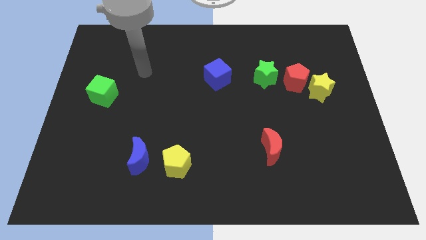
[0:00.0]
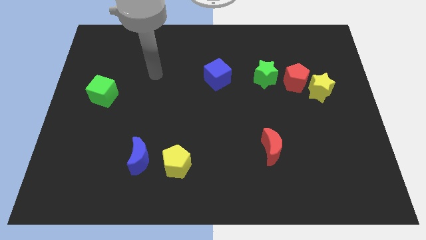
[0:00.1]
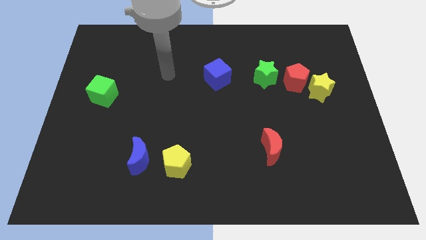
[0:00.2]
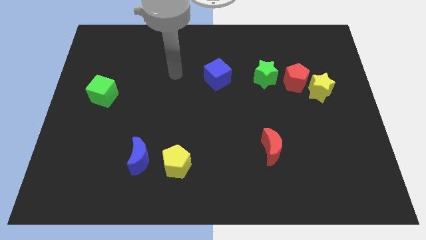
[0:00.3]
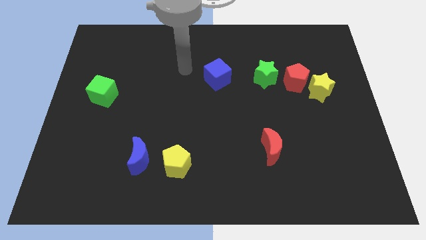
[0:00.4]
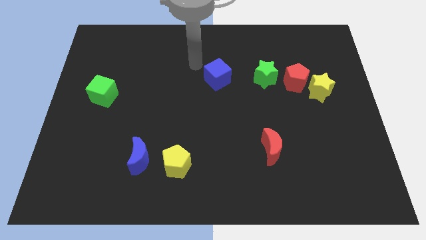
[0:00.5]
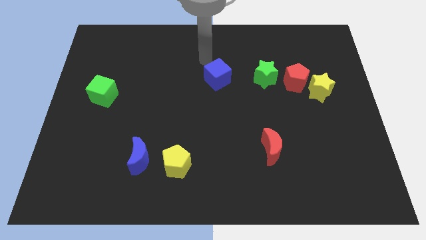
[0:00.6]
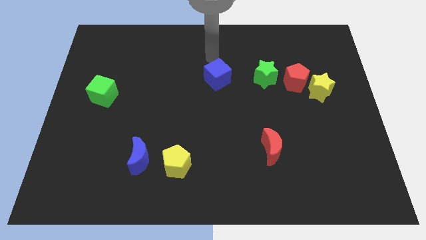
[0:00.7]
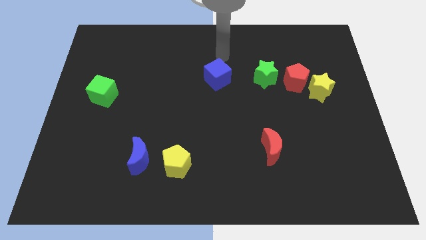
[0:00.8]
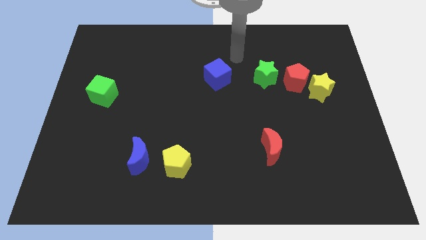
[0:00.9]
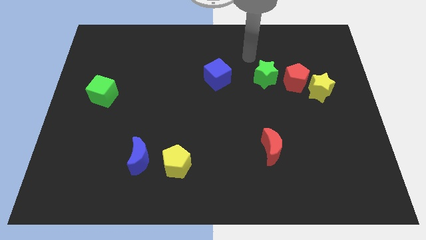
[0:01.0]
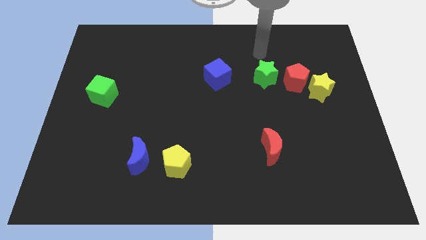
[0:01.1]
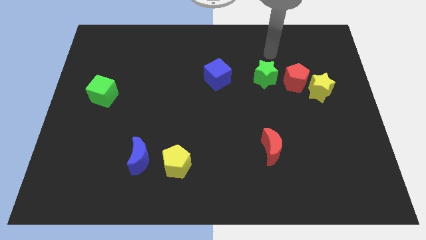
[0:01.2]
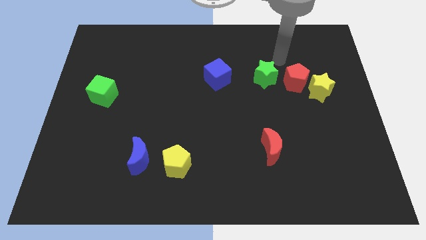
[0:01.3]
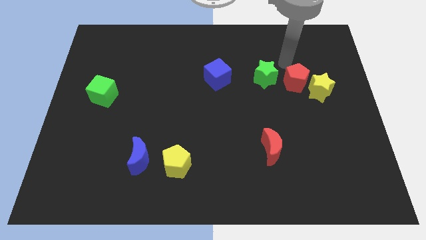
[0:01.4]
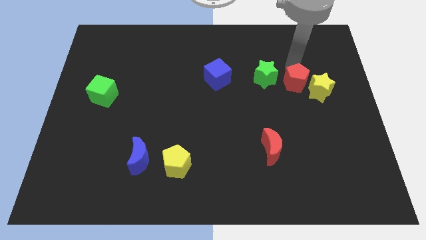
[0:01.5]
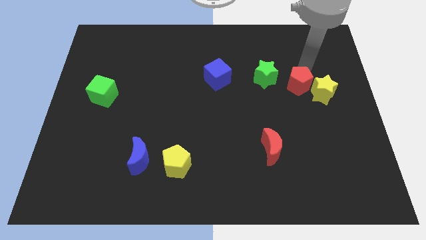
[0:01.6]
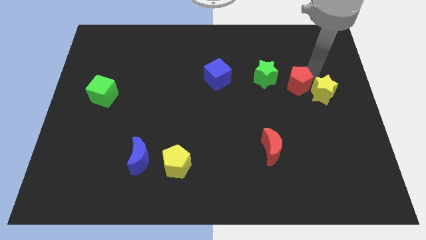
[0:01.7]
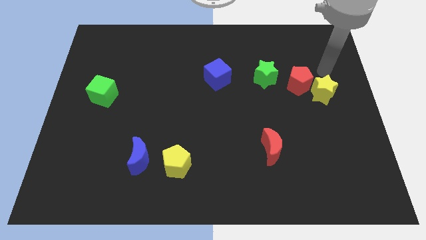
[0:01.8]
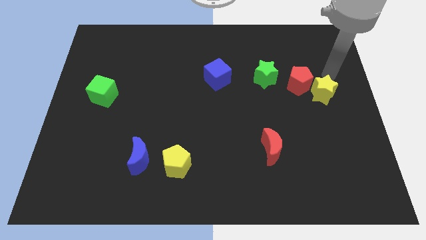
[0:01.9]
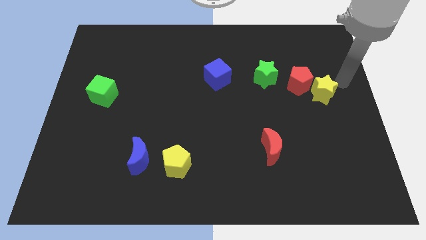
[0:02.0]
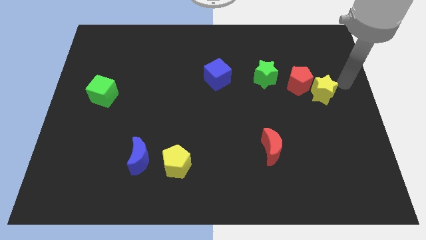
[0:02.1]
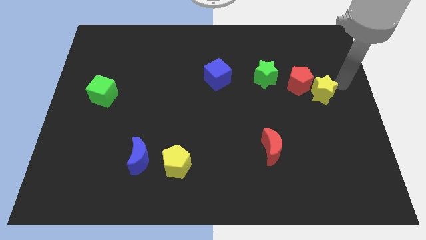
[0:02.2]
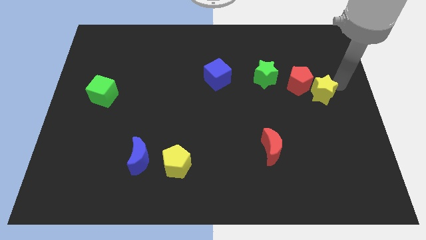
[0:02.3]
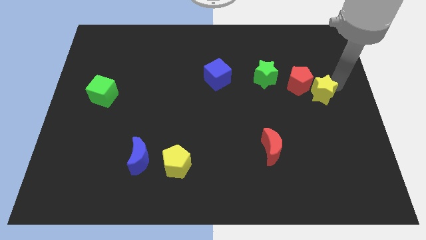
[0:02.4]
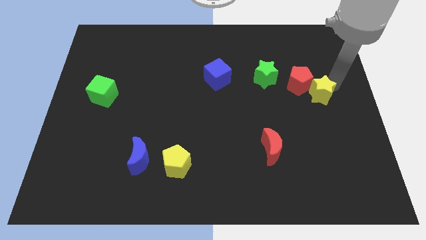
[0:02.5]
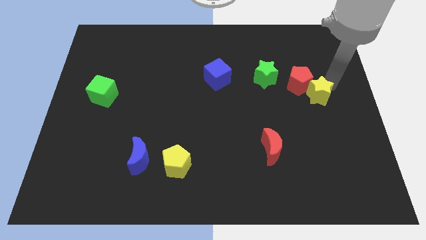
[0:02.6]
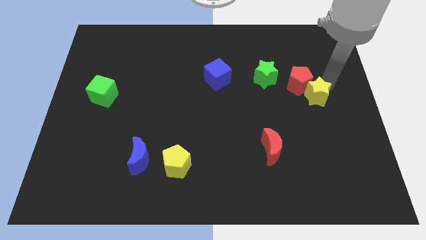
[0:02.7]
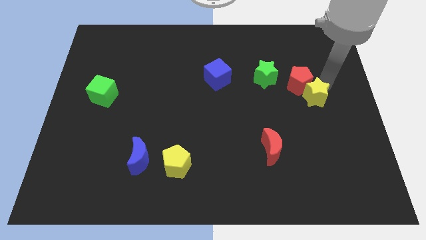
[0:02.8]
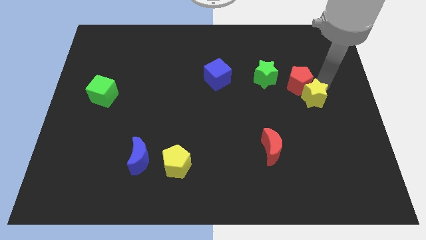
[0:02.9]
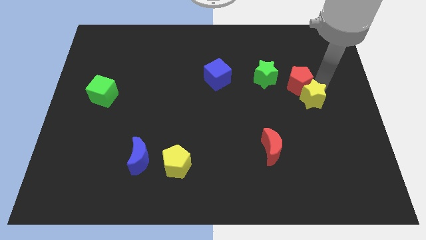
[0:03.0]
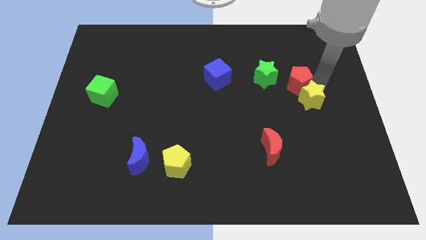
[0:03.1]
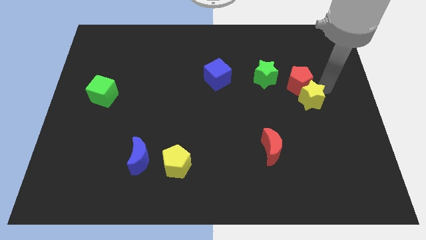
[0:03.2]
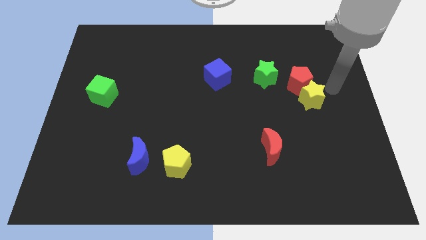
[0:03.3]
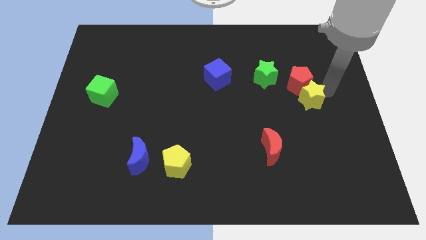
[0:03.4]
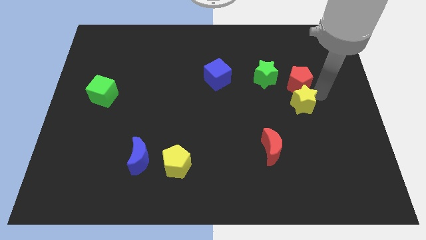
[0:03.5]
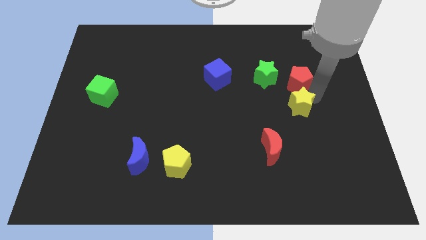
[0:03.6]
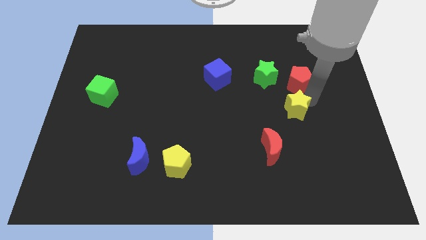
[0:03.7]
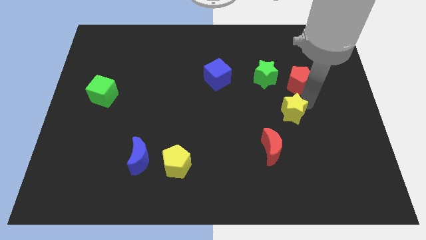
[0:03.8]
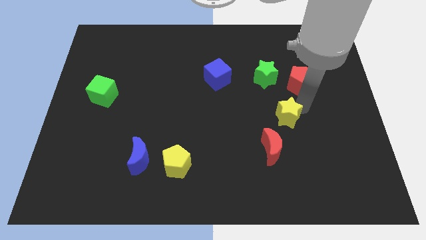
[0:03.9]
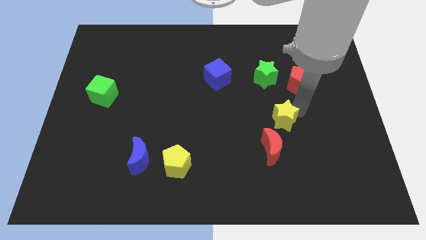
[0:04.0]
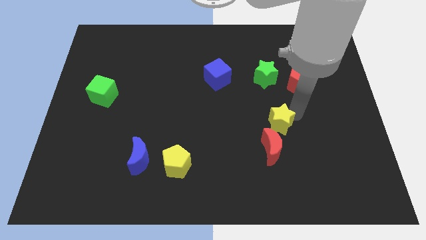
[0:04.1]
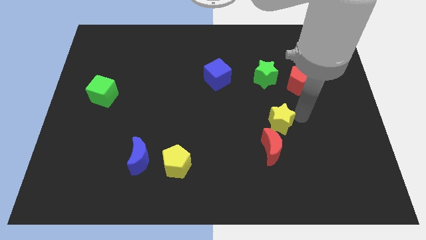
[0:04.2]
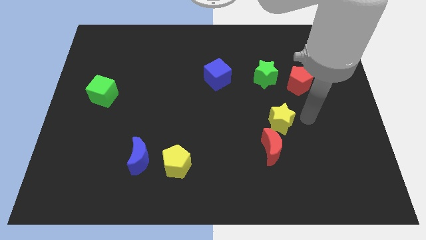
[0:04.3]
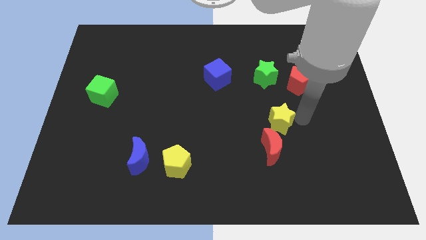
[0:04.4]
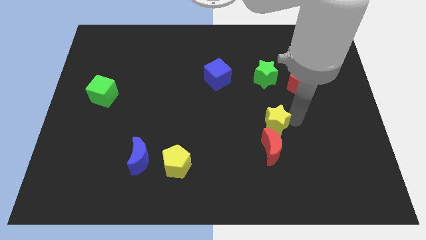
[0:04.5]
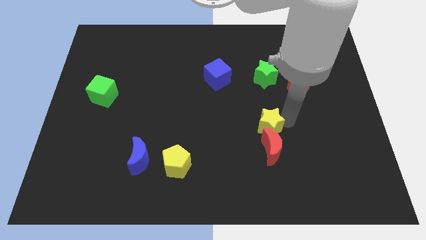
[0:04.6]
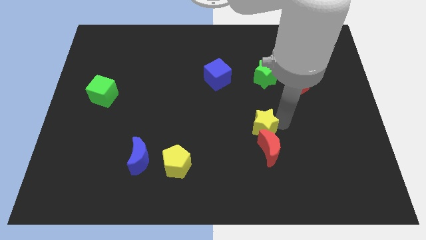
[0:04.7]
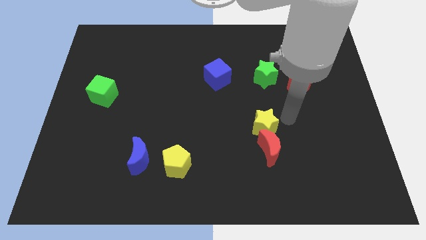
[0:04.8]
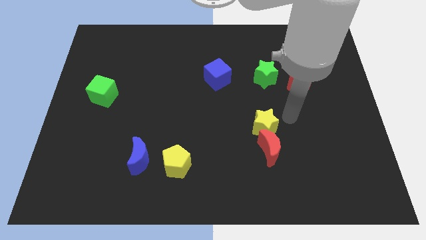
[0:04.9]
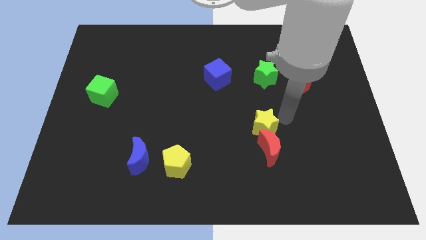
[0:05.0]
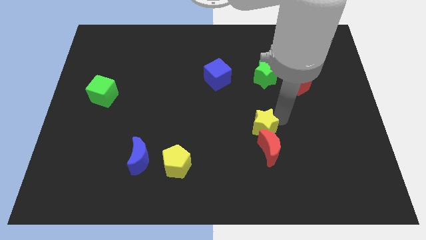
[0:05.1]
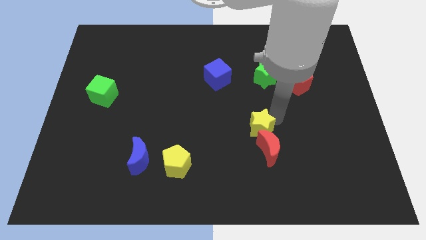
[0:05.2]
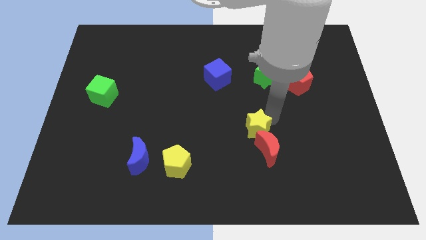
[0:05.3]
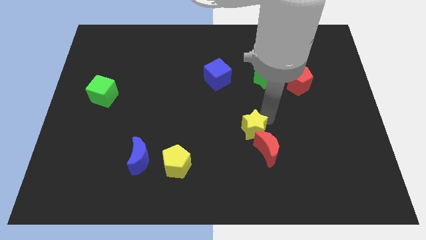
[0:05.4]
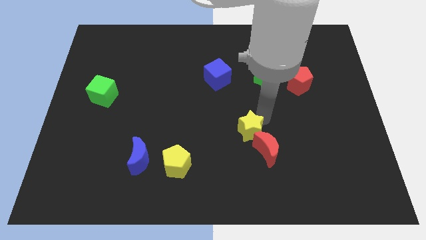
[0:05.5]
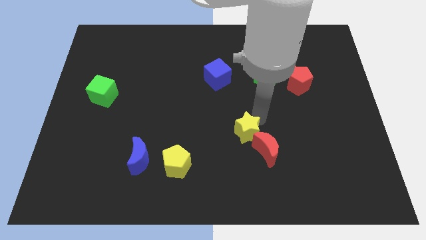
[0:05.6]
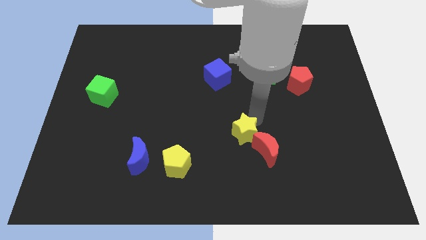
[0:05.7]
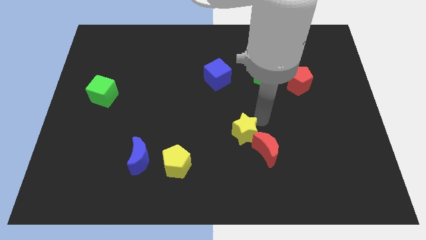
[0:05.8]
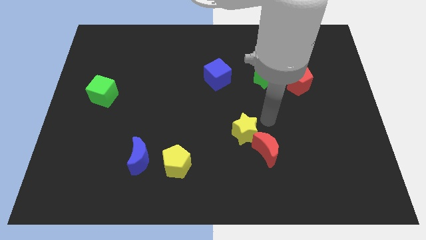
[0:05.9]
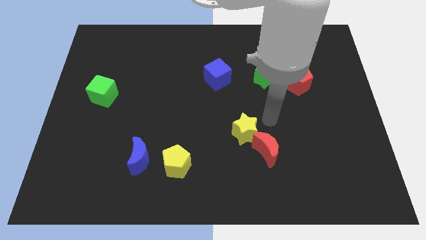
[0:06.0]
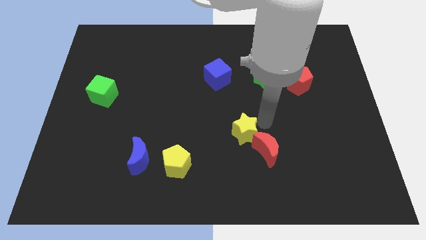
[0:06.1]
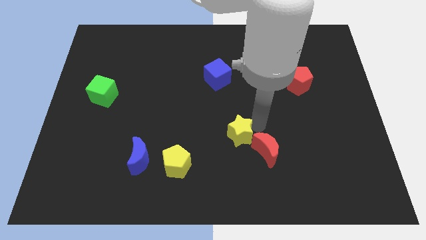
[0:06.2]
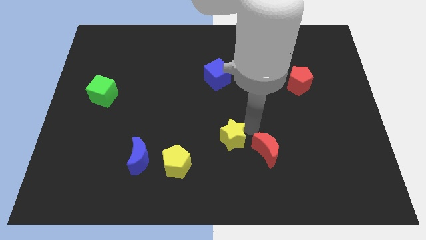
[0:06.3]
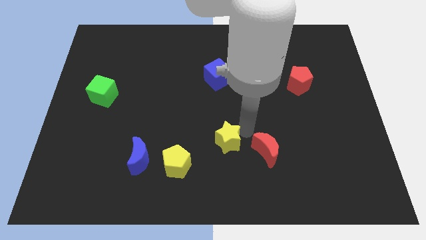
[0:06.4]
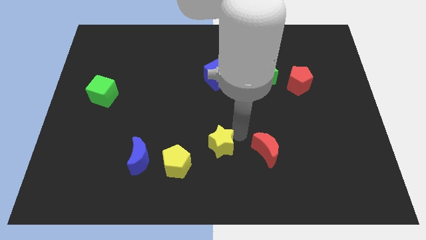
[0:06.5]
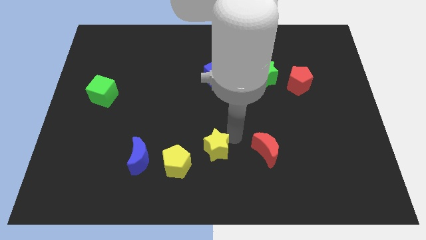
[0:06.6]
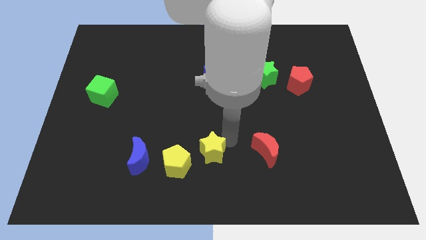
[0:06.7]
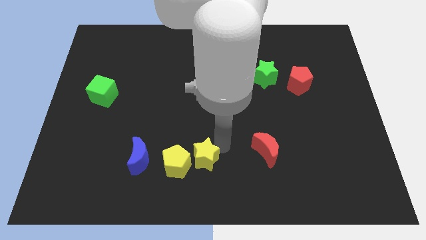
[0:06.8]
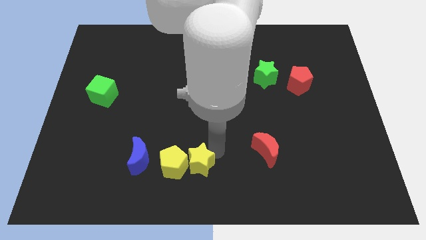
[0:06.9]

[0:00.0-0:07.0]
slide the yellow star close to the yellow pentagon

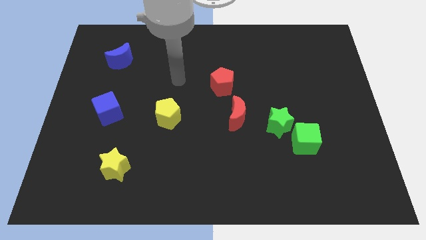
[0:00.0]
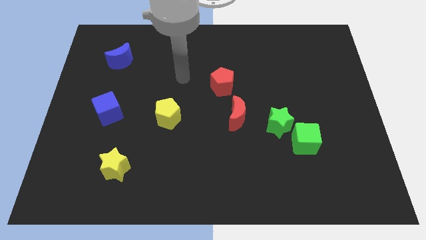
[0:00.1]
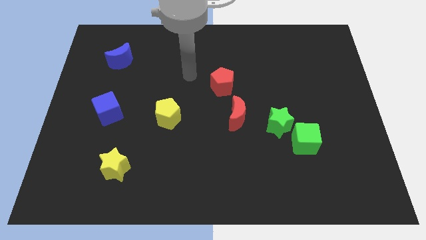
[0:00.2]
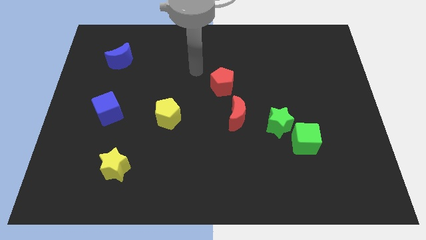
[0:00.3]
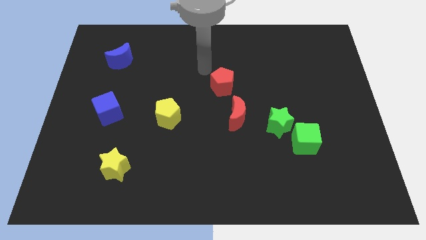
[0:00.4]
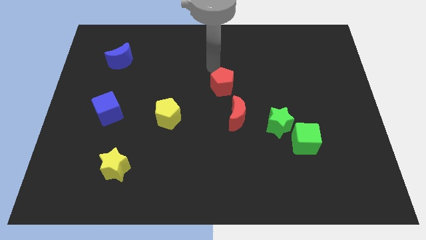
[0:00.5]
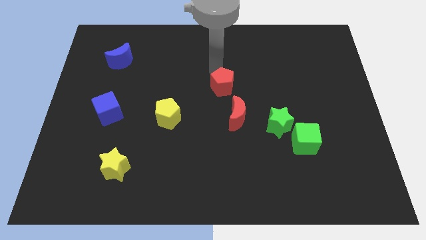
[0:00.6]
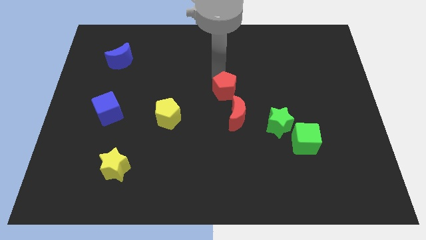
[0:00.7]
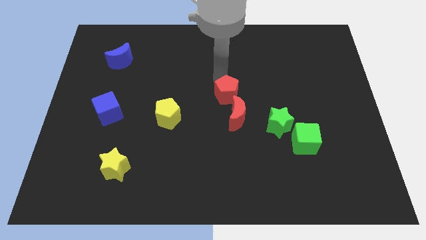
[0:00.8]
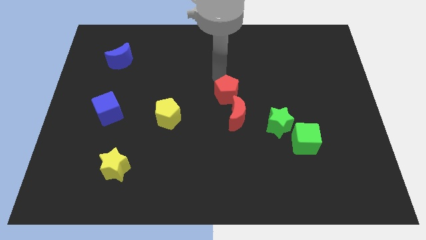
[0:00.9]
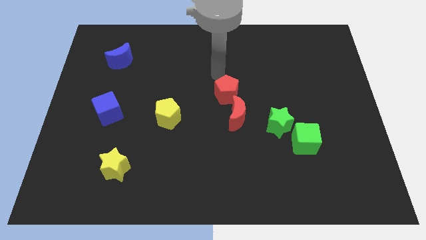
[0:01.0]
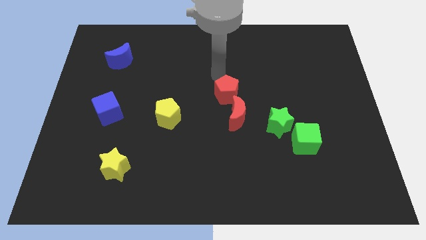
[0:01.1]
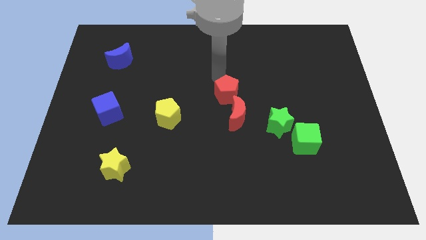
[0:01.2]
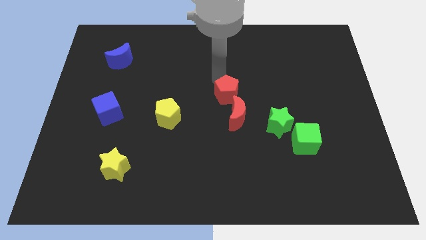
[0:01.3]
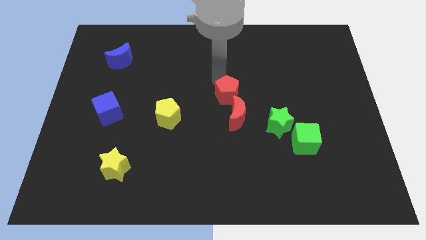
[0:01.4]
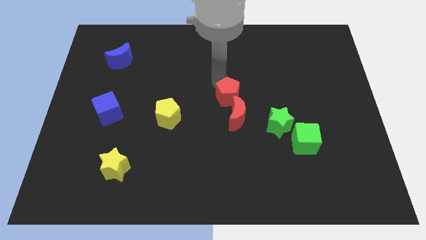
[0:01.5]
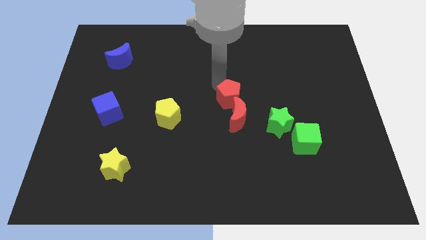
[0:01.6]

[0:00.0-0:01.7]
put the red pentagon to the red moon
